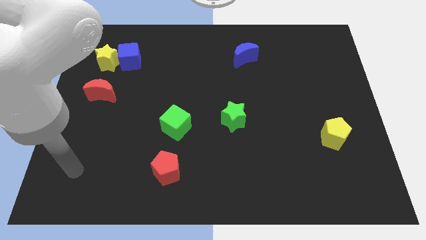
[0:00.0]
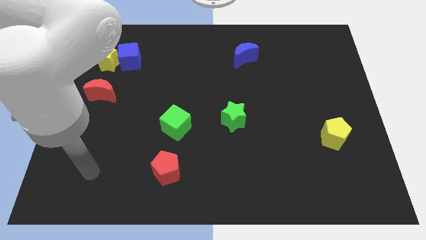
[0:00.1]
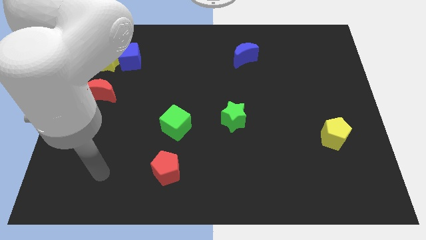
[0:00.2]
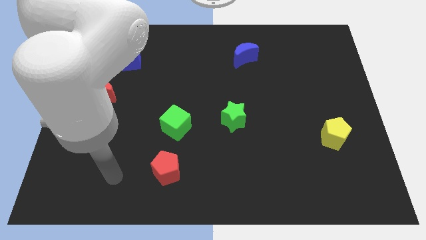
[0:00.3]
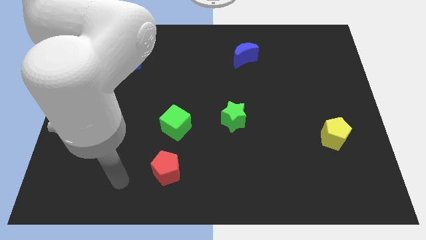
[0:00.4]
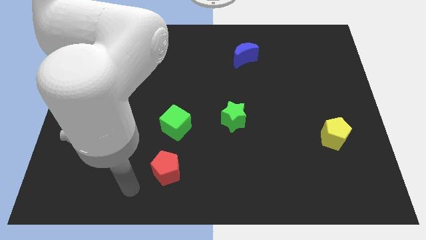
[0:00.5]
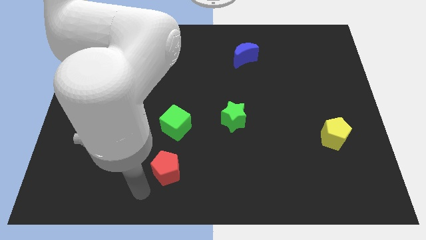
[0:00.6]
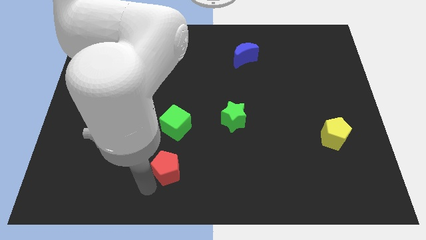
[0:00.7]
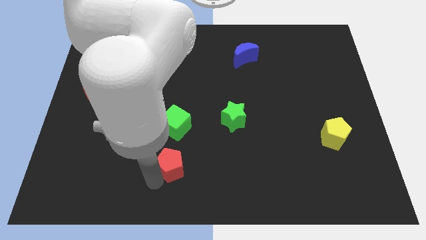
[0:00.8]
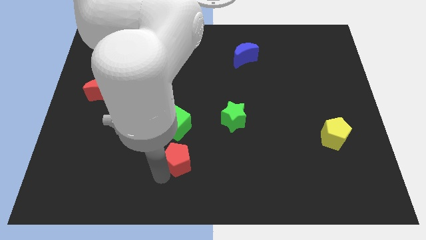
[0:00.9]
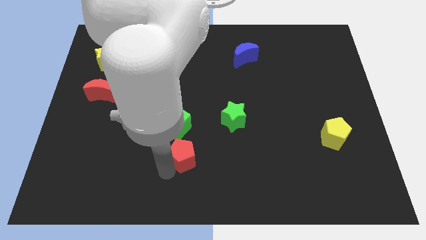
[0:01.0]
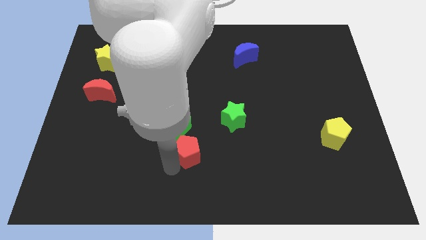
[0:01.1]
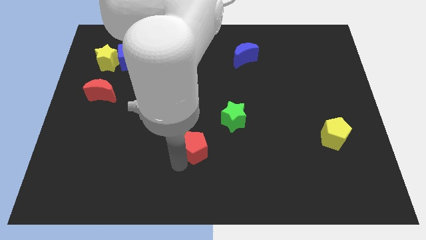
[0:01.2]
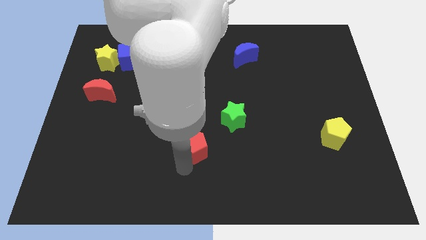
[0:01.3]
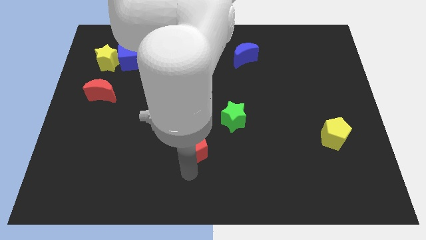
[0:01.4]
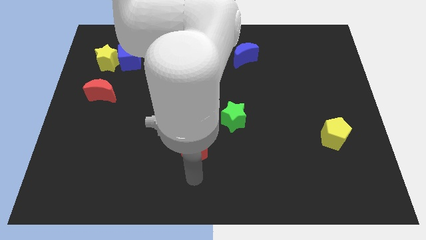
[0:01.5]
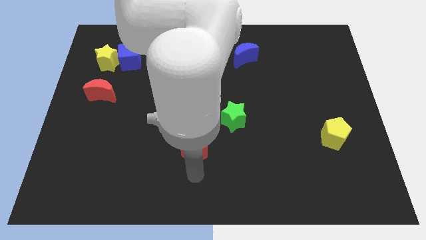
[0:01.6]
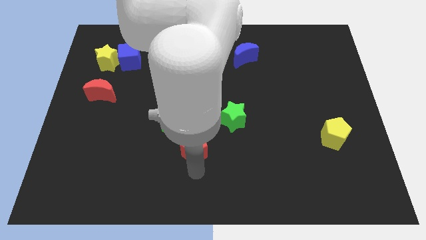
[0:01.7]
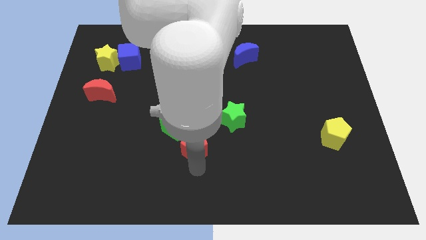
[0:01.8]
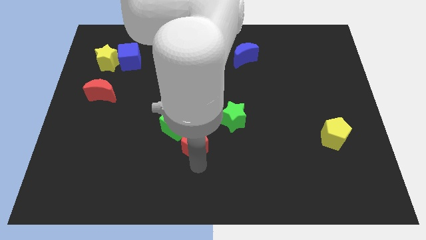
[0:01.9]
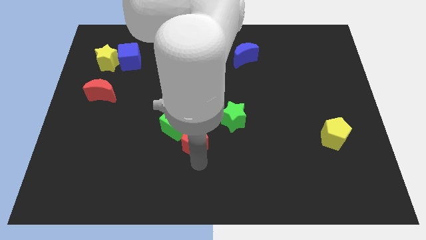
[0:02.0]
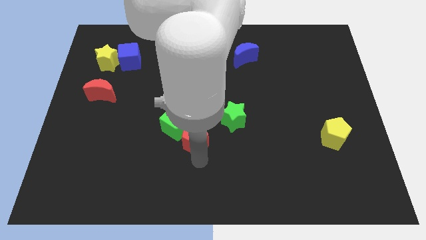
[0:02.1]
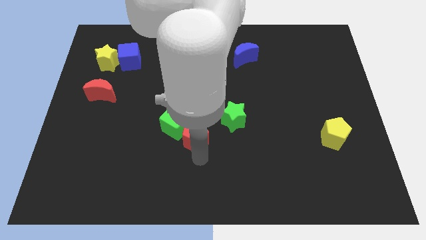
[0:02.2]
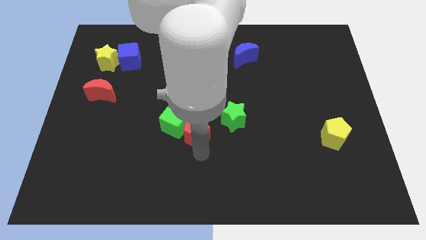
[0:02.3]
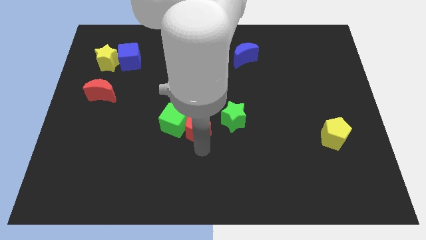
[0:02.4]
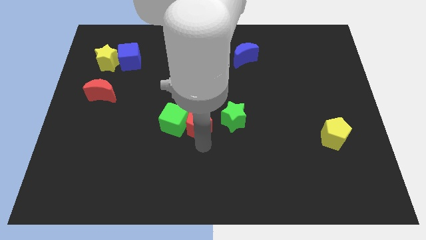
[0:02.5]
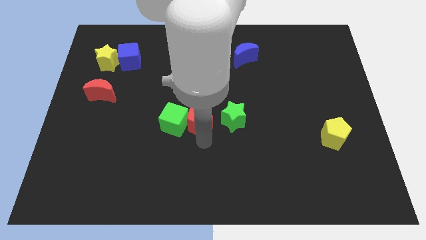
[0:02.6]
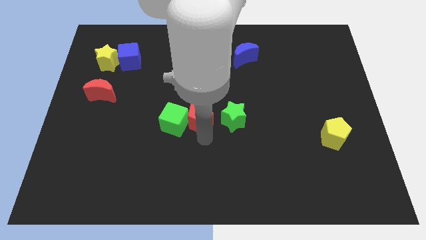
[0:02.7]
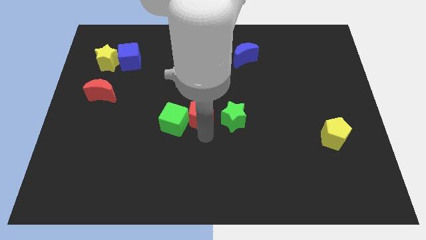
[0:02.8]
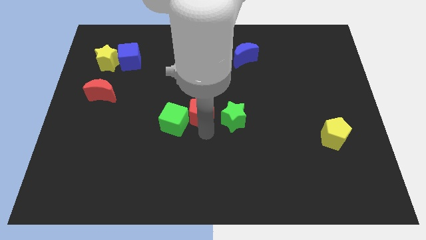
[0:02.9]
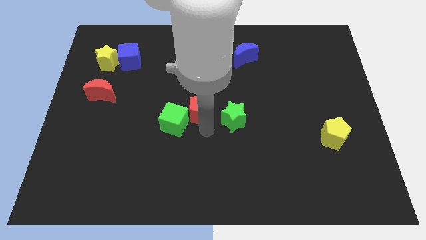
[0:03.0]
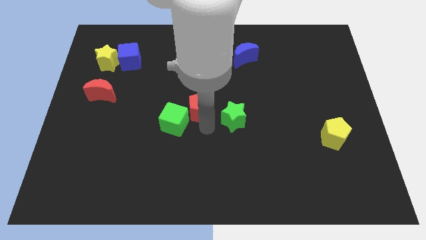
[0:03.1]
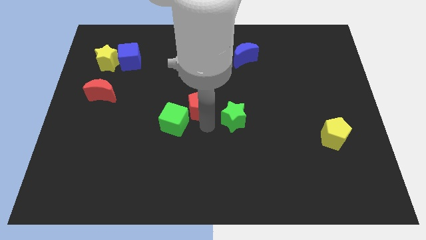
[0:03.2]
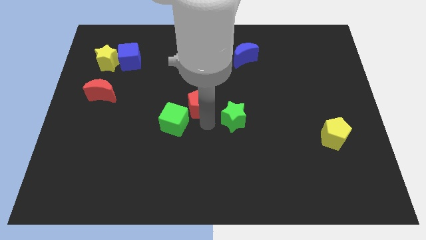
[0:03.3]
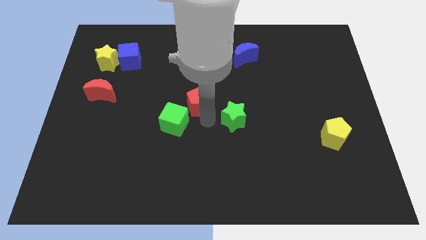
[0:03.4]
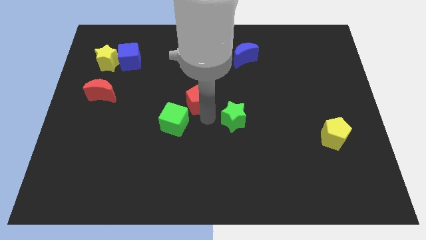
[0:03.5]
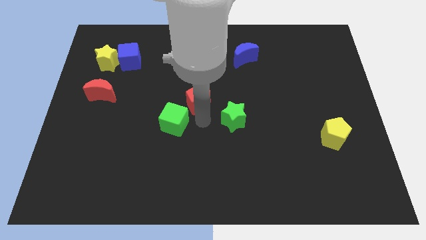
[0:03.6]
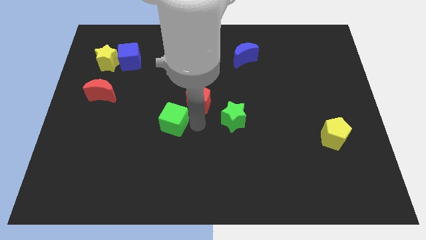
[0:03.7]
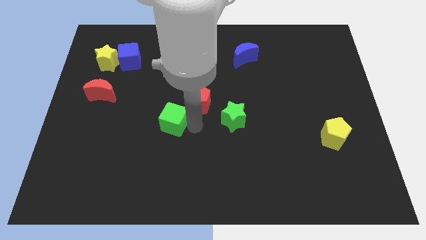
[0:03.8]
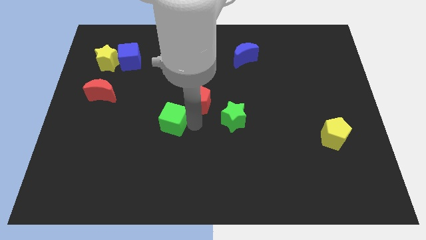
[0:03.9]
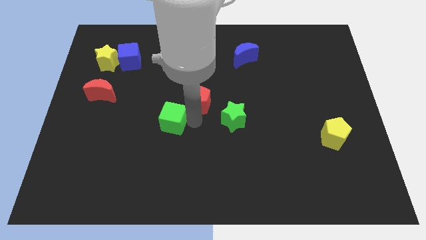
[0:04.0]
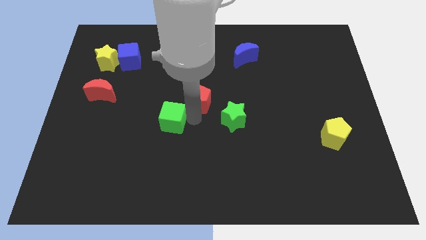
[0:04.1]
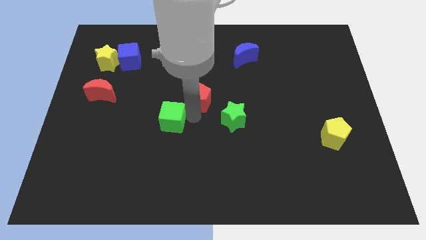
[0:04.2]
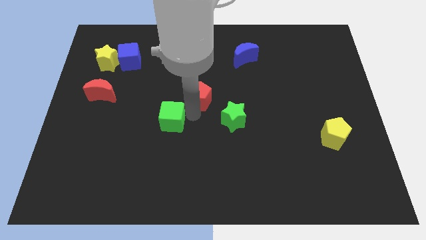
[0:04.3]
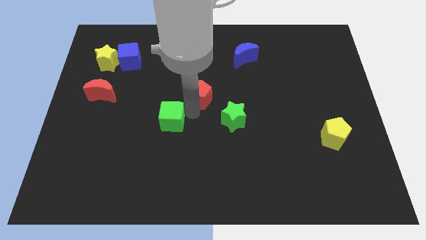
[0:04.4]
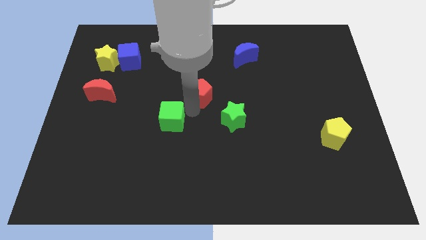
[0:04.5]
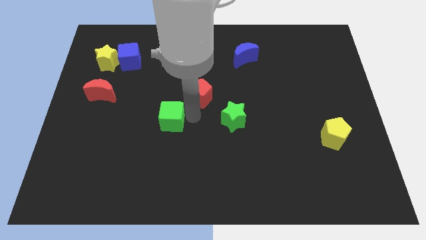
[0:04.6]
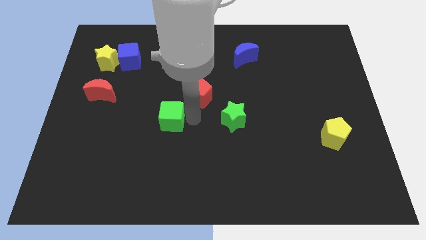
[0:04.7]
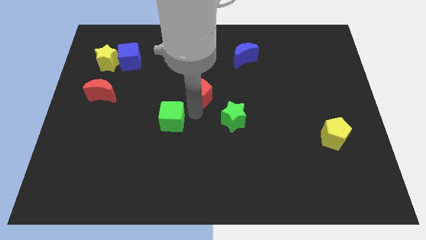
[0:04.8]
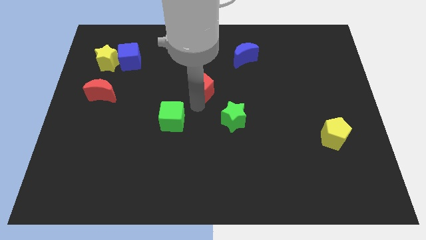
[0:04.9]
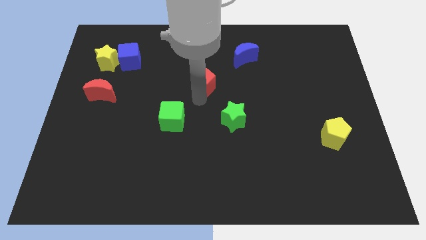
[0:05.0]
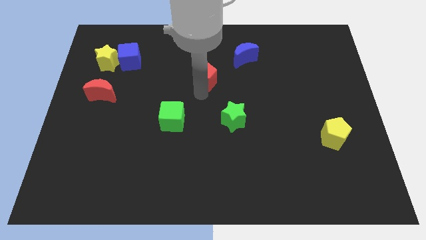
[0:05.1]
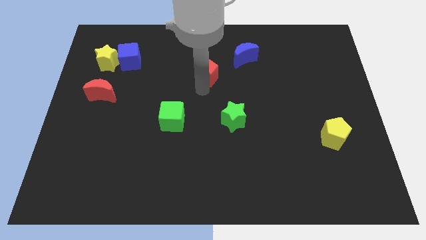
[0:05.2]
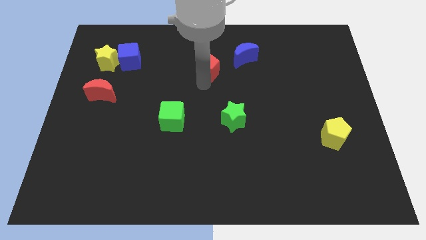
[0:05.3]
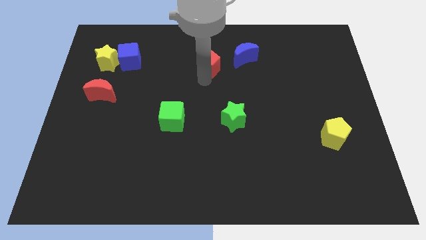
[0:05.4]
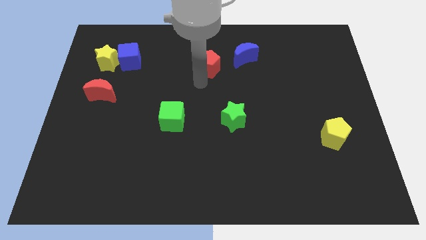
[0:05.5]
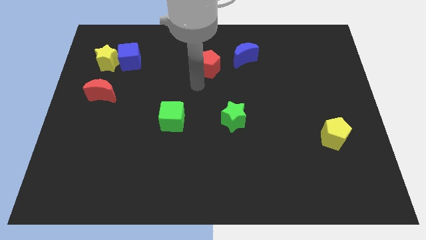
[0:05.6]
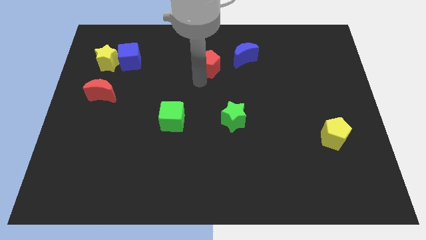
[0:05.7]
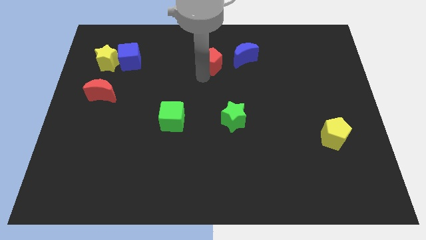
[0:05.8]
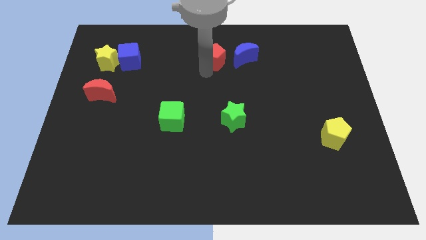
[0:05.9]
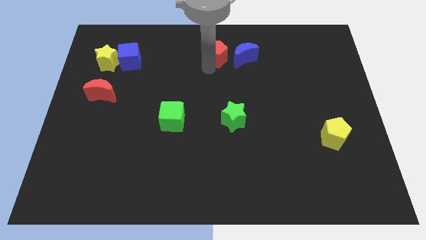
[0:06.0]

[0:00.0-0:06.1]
push the red pentagon to the towards your base

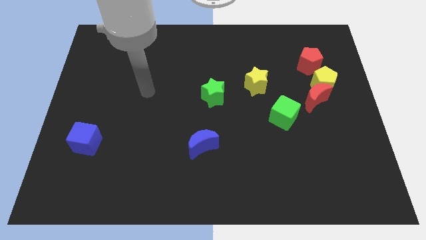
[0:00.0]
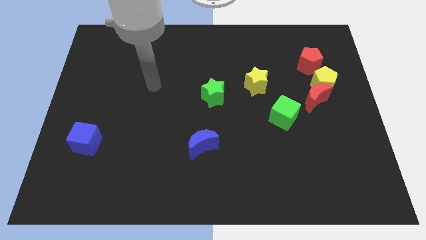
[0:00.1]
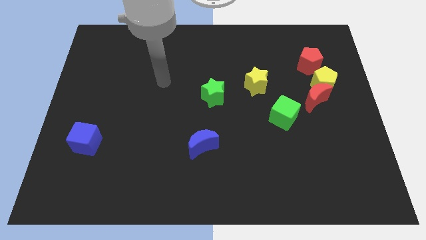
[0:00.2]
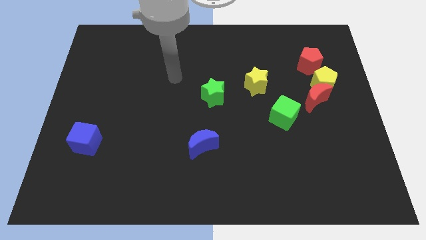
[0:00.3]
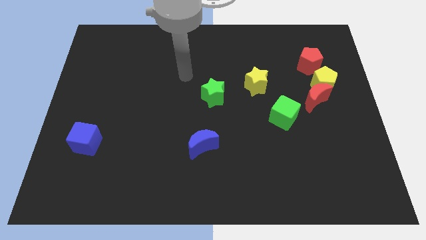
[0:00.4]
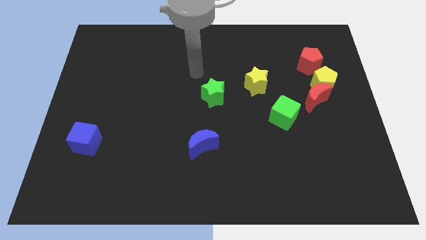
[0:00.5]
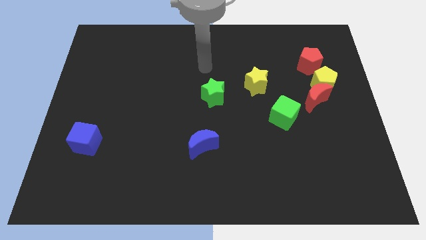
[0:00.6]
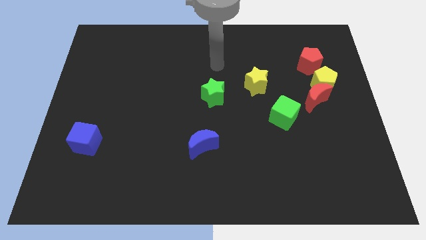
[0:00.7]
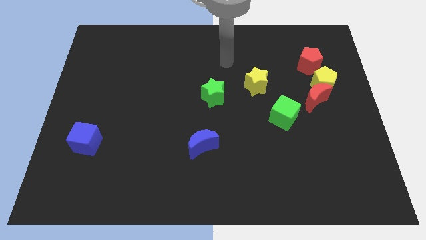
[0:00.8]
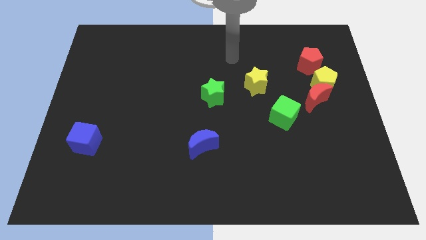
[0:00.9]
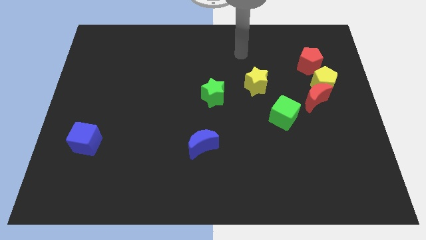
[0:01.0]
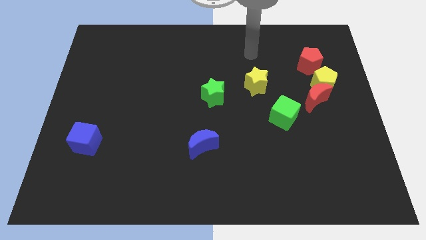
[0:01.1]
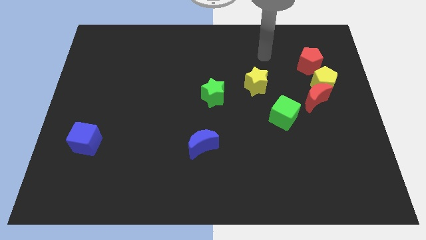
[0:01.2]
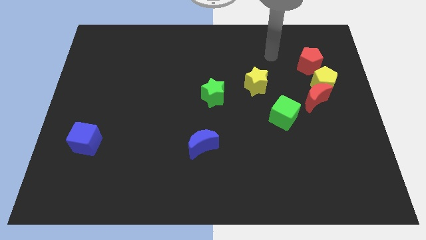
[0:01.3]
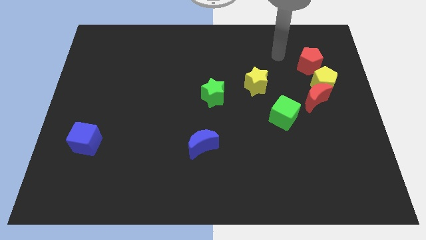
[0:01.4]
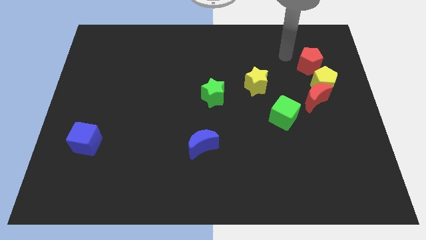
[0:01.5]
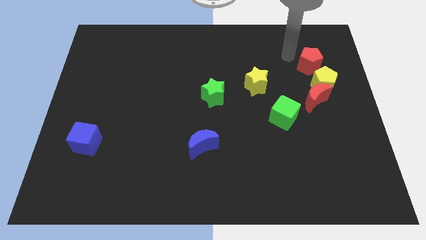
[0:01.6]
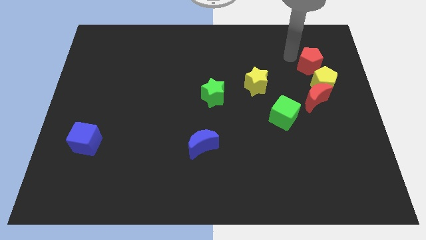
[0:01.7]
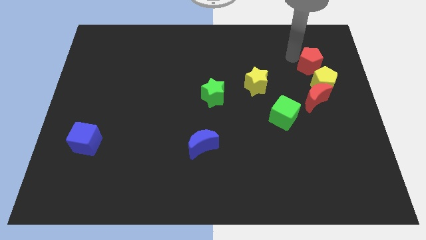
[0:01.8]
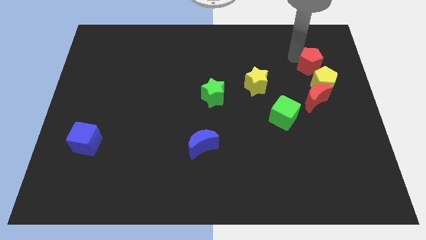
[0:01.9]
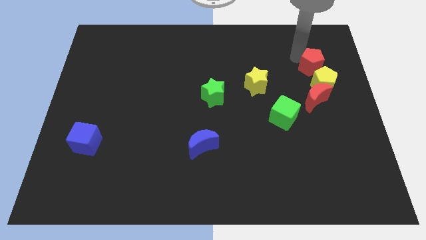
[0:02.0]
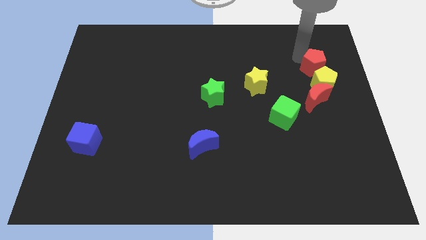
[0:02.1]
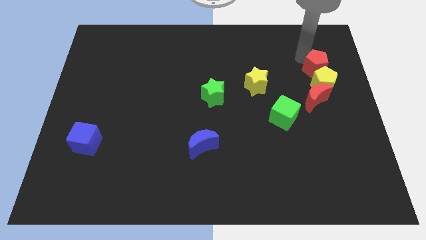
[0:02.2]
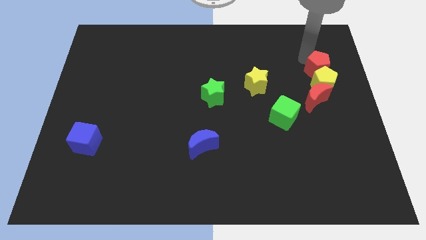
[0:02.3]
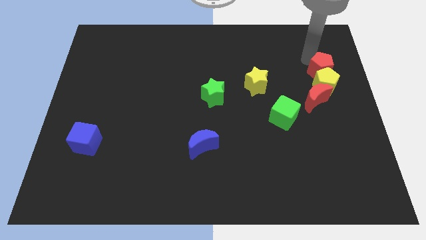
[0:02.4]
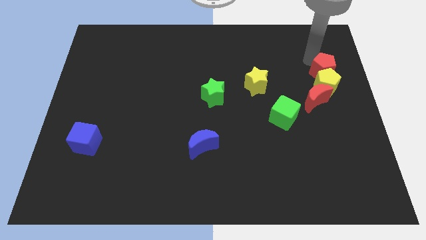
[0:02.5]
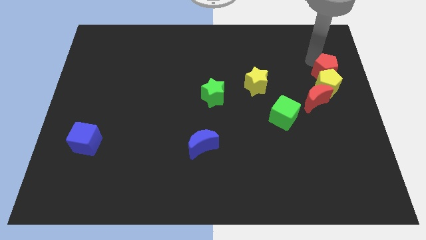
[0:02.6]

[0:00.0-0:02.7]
put the red pentagon to the right side
